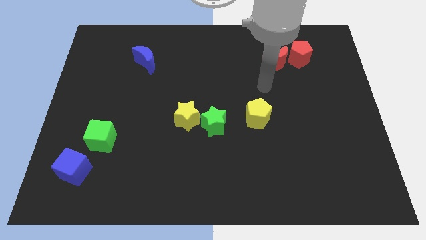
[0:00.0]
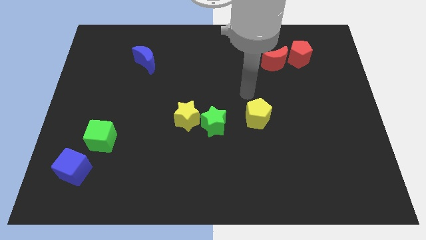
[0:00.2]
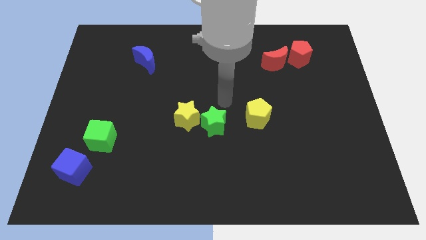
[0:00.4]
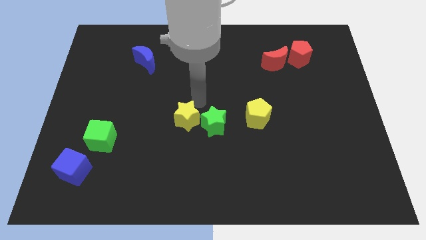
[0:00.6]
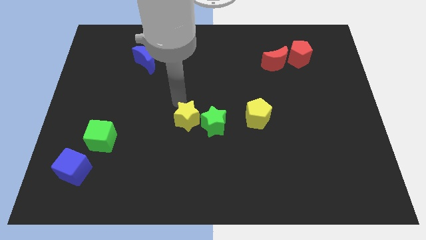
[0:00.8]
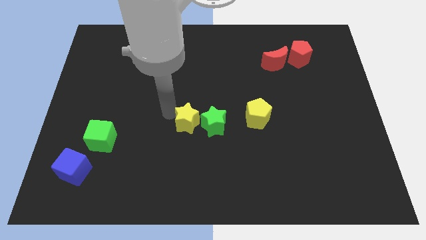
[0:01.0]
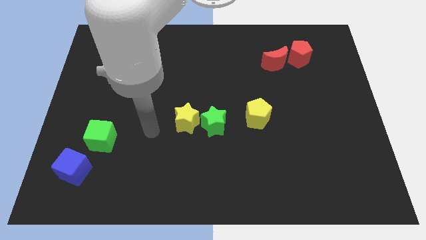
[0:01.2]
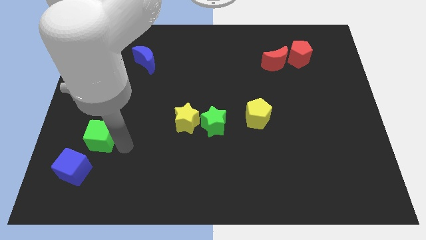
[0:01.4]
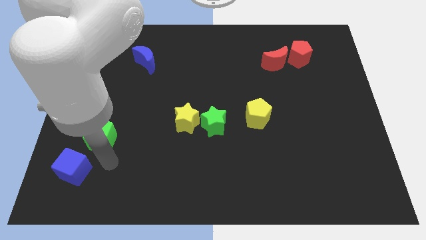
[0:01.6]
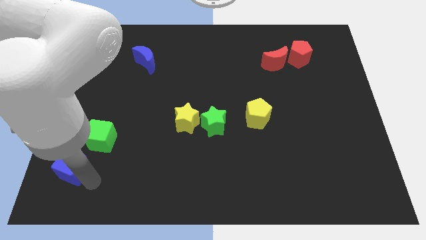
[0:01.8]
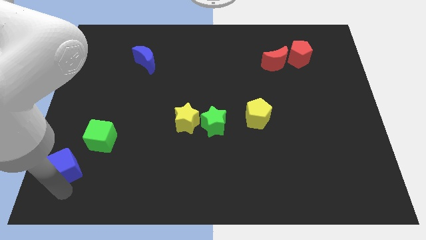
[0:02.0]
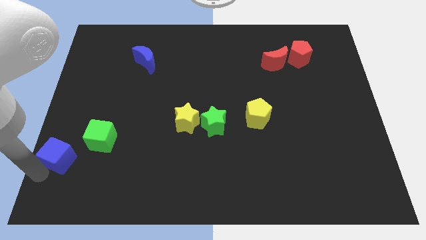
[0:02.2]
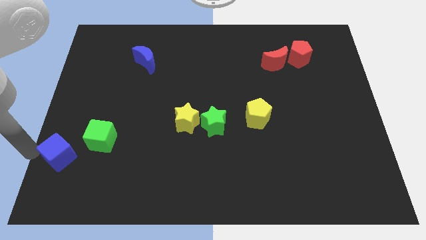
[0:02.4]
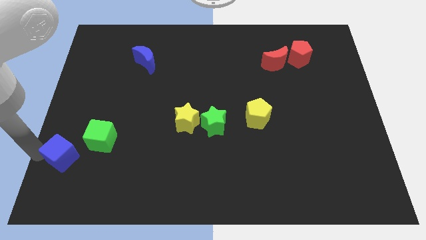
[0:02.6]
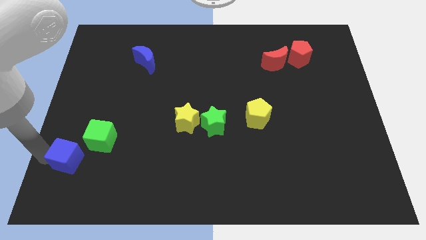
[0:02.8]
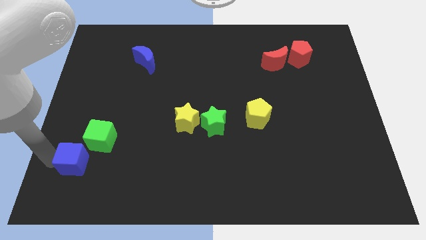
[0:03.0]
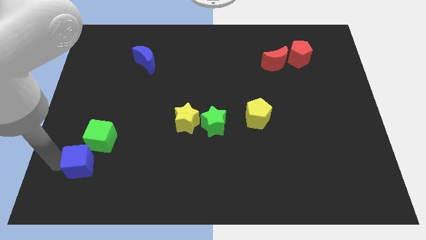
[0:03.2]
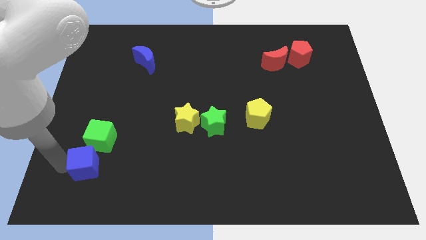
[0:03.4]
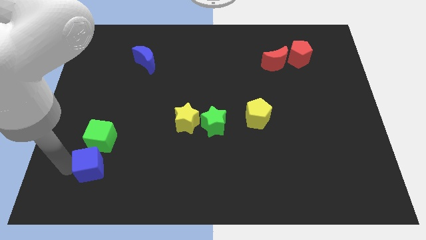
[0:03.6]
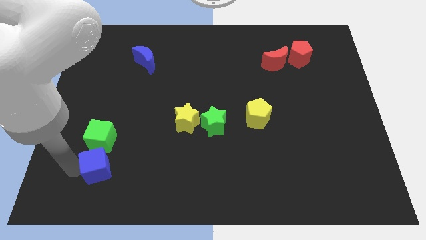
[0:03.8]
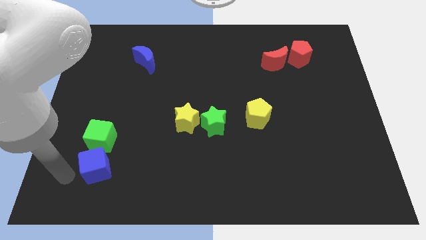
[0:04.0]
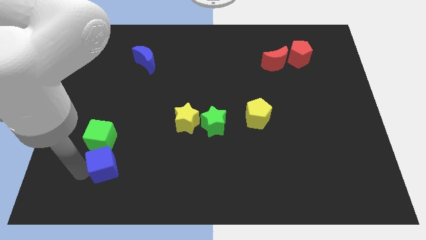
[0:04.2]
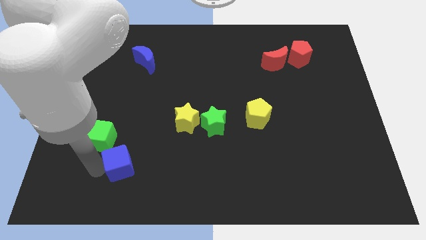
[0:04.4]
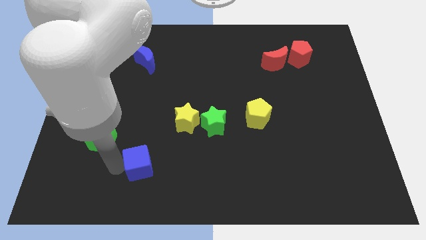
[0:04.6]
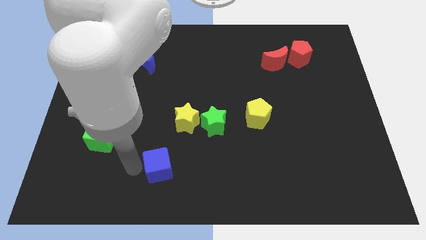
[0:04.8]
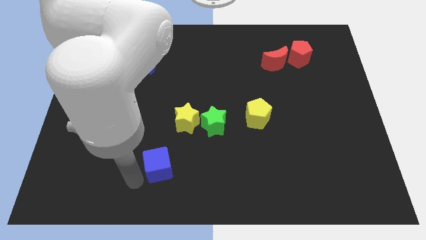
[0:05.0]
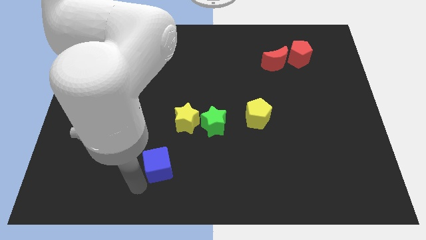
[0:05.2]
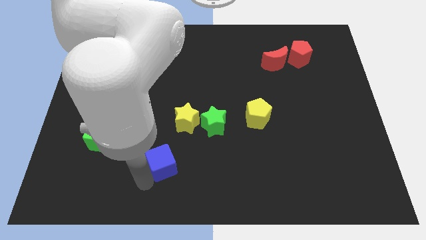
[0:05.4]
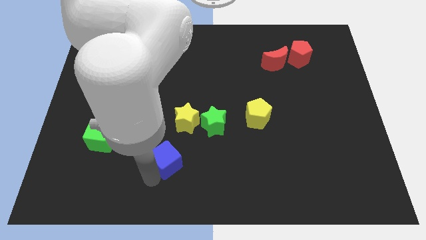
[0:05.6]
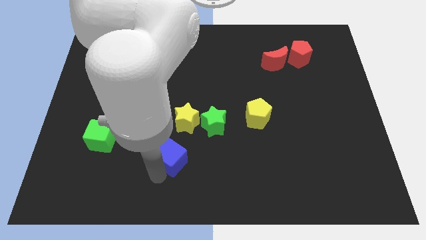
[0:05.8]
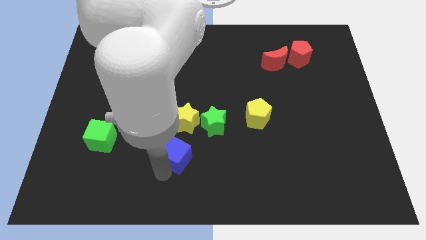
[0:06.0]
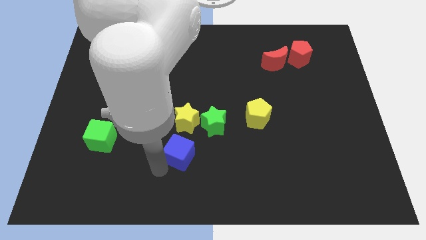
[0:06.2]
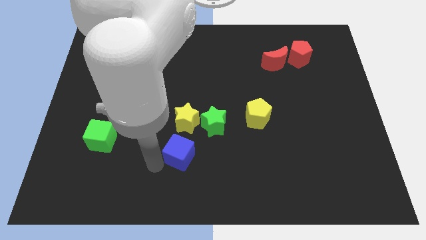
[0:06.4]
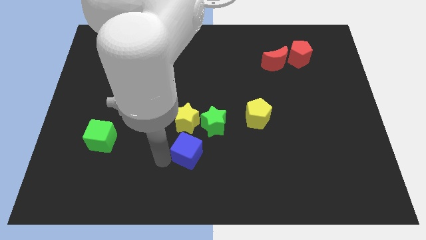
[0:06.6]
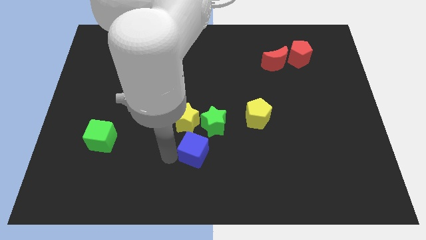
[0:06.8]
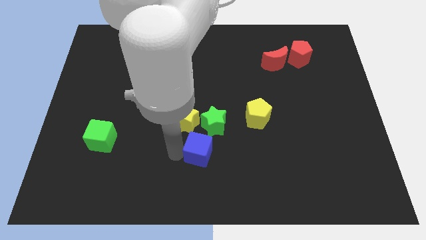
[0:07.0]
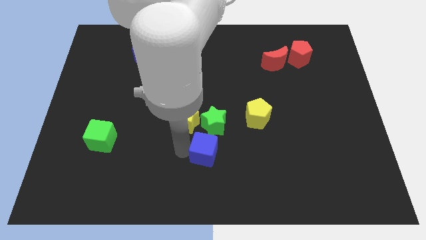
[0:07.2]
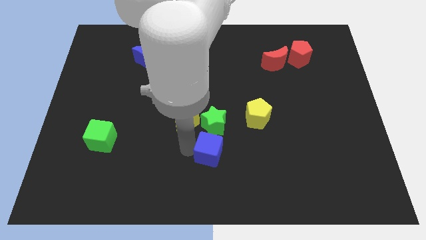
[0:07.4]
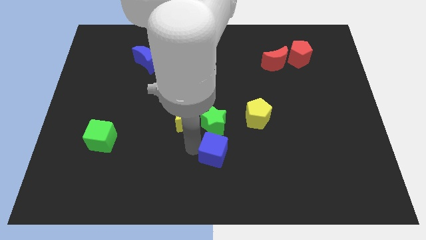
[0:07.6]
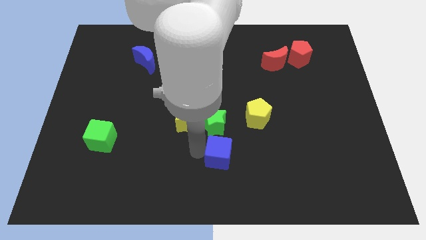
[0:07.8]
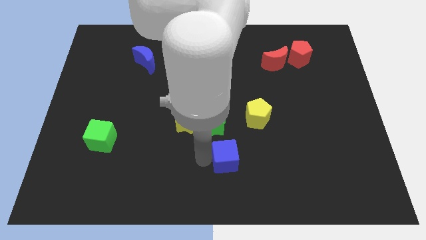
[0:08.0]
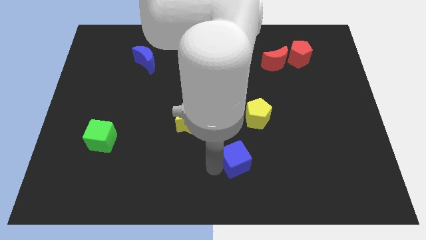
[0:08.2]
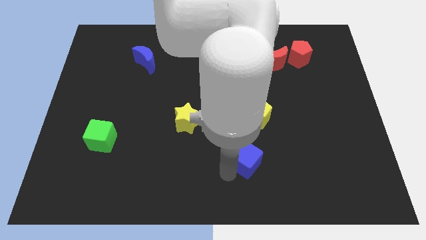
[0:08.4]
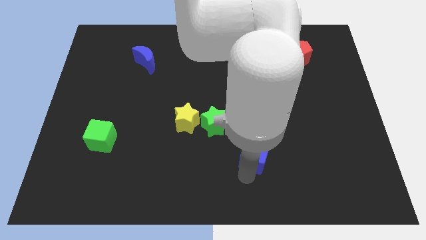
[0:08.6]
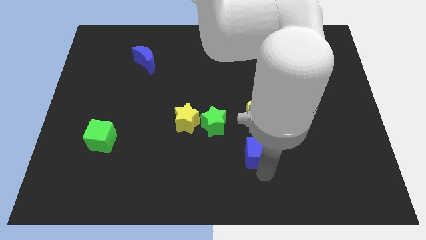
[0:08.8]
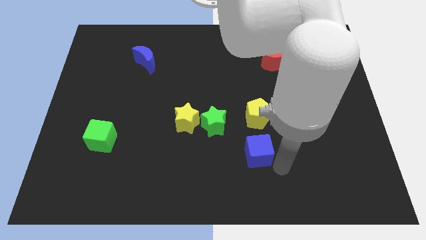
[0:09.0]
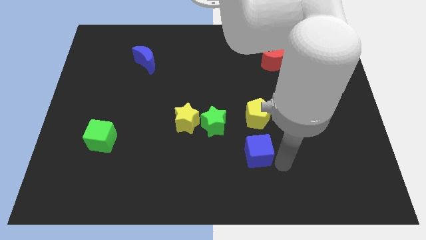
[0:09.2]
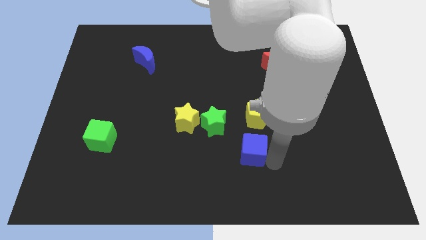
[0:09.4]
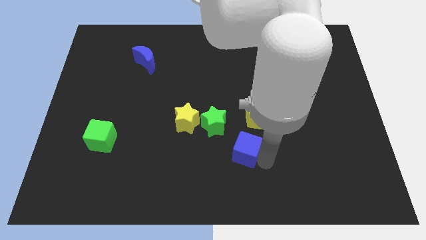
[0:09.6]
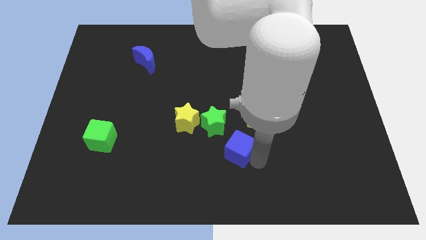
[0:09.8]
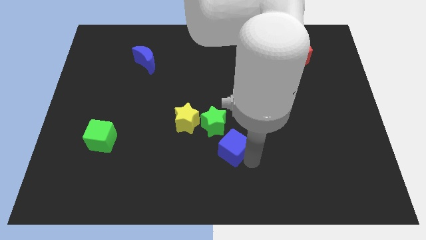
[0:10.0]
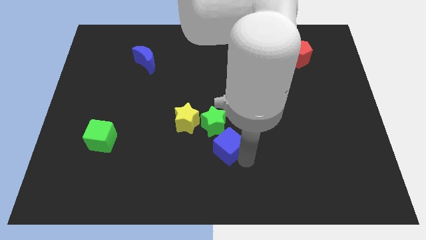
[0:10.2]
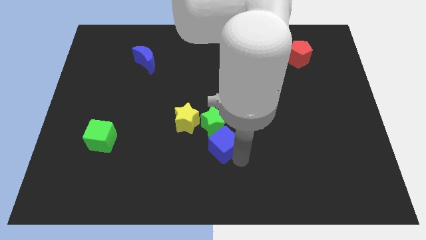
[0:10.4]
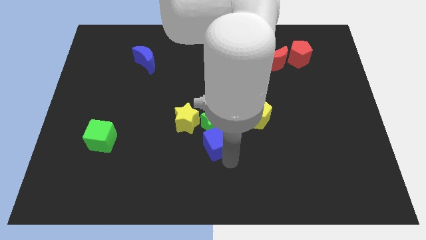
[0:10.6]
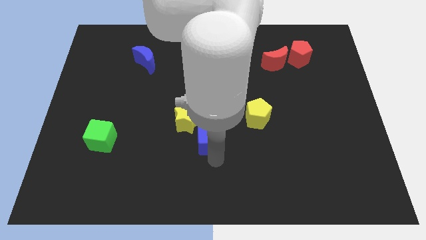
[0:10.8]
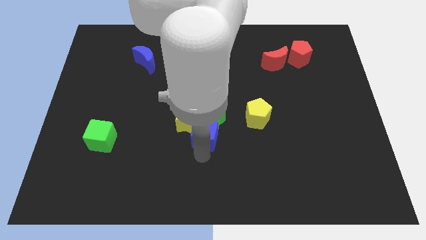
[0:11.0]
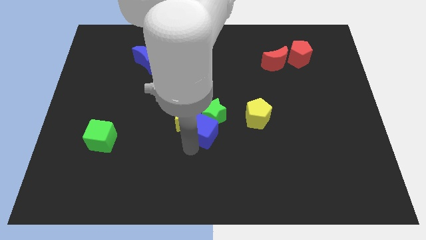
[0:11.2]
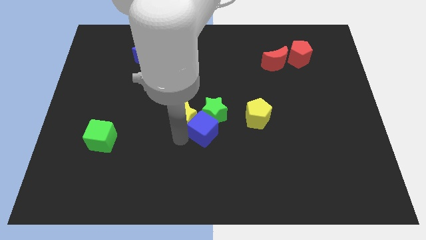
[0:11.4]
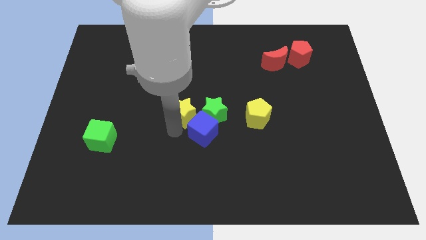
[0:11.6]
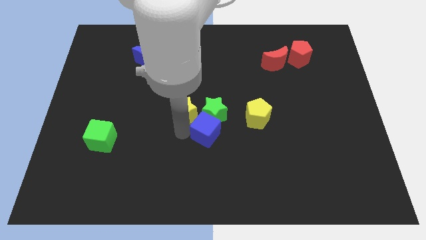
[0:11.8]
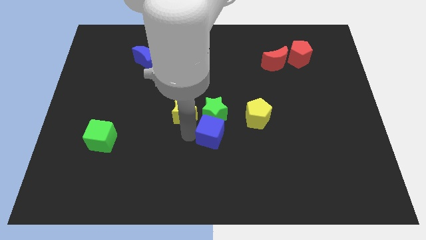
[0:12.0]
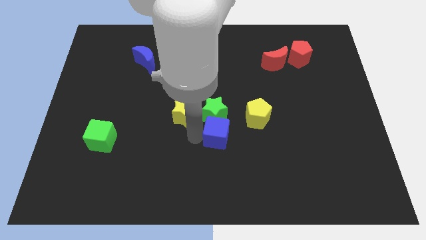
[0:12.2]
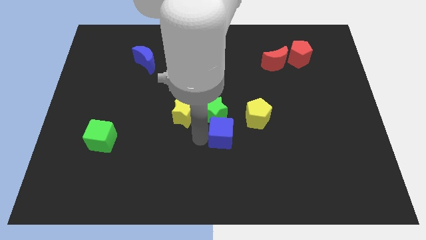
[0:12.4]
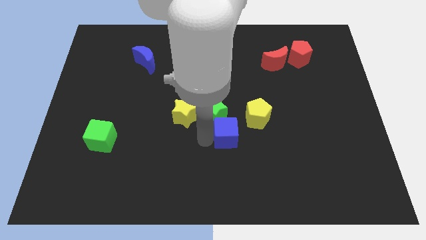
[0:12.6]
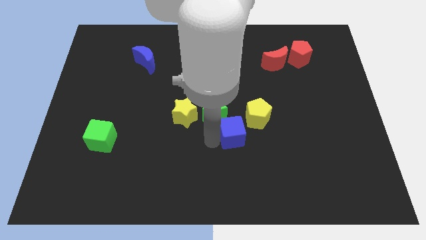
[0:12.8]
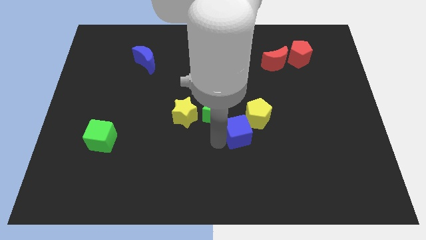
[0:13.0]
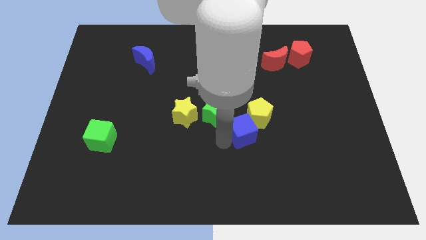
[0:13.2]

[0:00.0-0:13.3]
slide the blue cube next to the yellow pentagon
